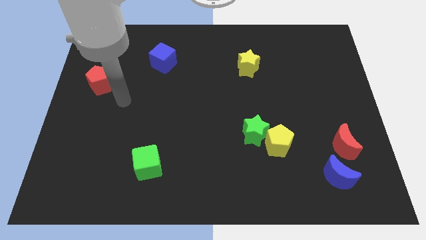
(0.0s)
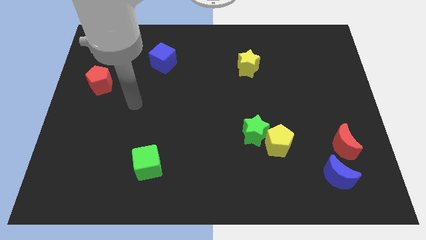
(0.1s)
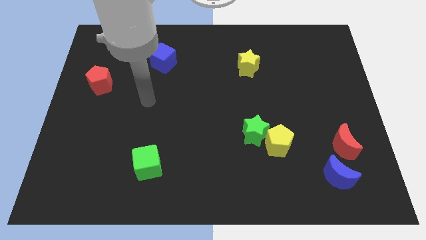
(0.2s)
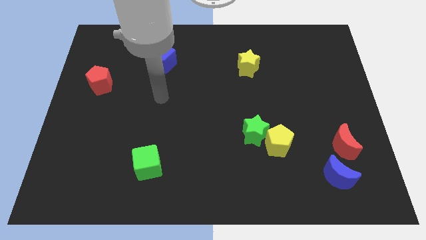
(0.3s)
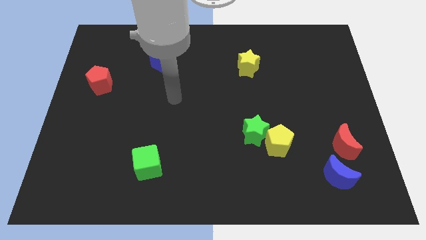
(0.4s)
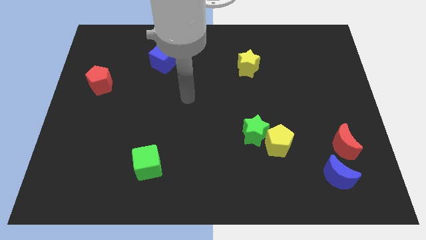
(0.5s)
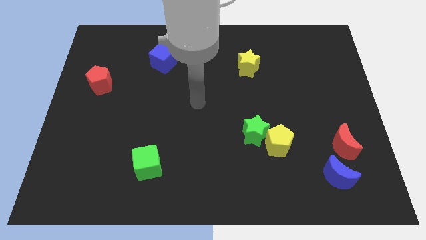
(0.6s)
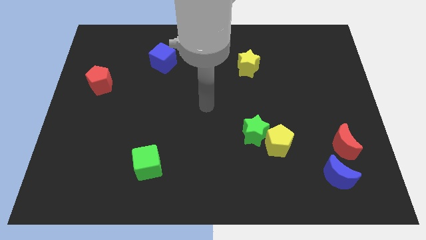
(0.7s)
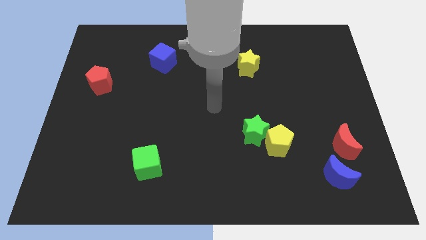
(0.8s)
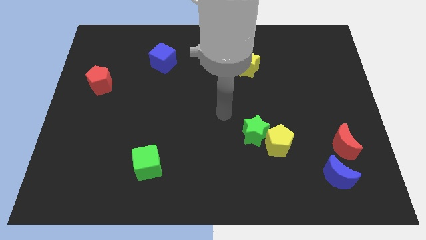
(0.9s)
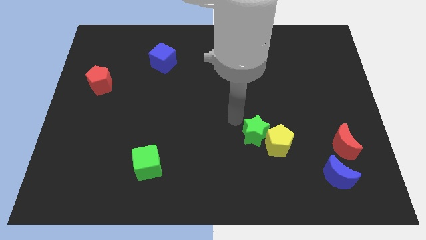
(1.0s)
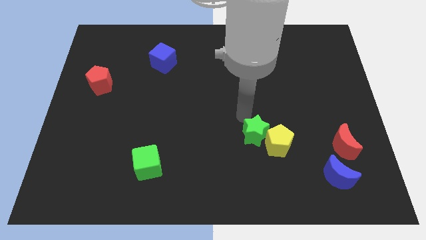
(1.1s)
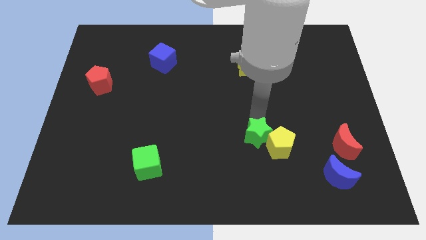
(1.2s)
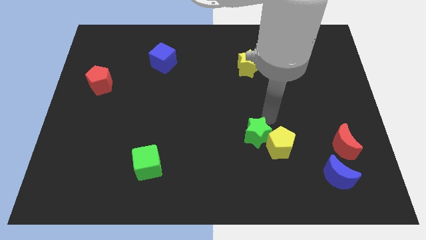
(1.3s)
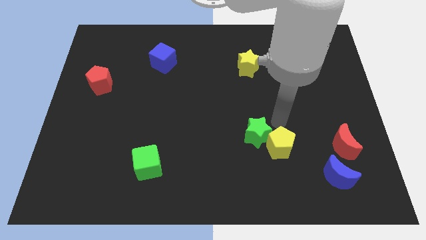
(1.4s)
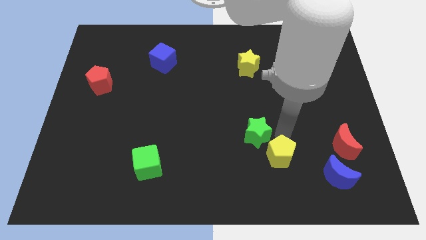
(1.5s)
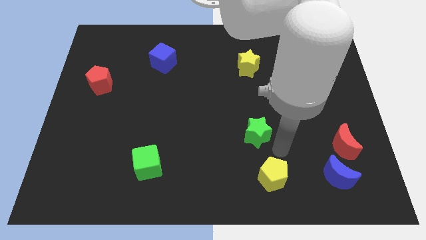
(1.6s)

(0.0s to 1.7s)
separate the green star from the yellow pentagon

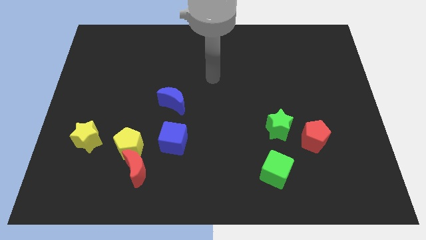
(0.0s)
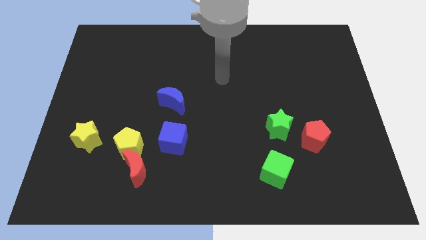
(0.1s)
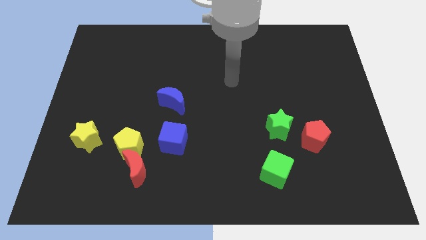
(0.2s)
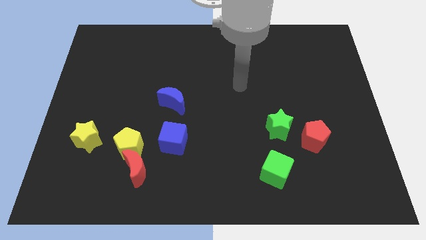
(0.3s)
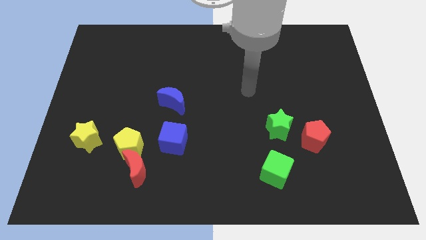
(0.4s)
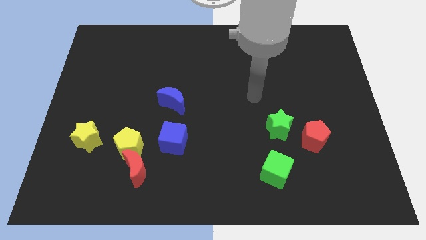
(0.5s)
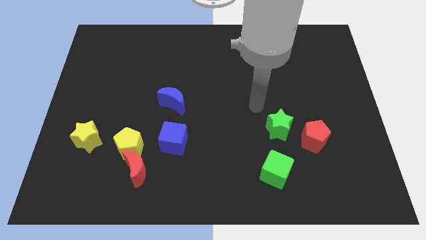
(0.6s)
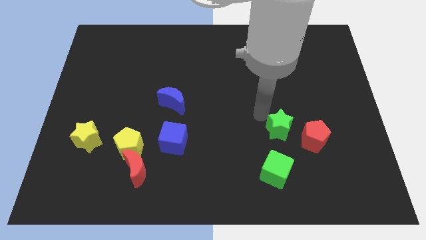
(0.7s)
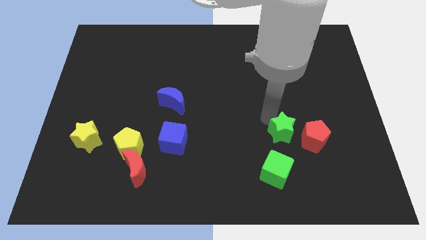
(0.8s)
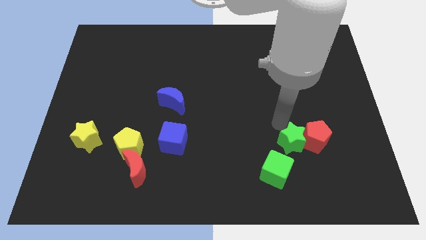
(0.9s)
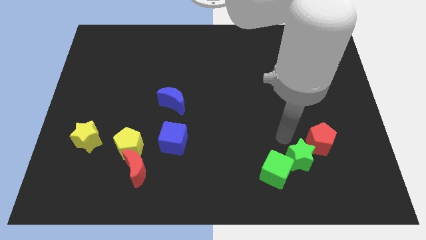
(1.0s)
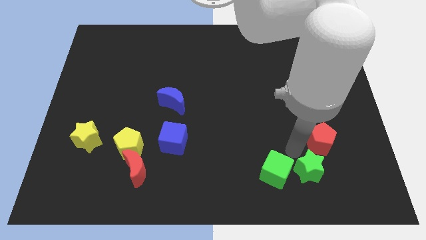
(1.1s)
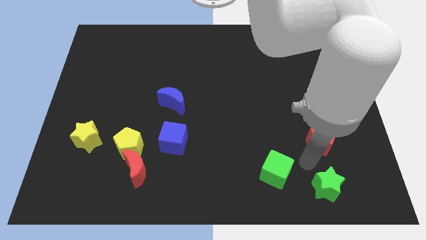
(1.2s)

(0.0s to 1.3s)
move the red pentagon away from the green star

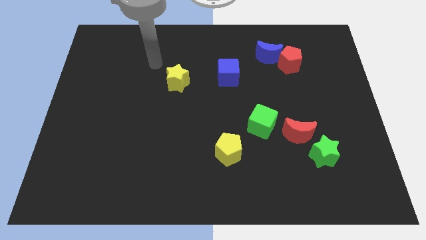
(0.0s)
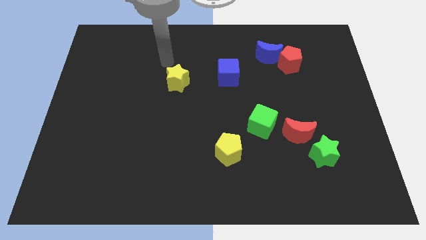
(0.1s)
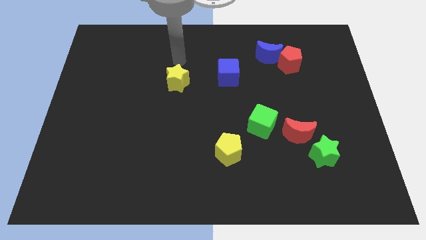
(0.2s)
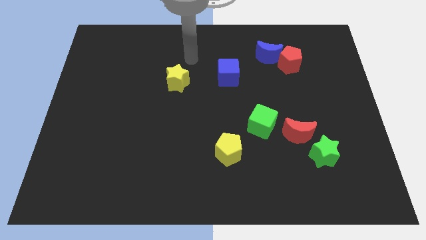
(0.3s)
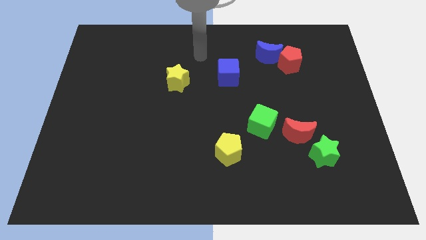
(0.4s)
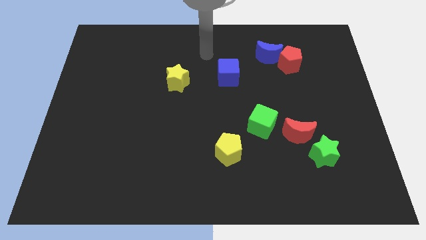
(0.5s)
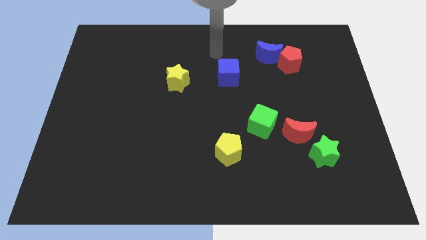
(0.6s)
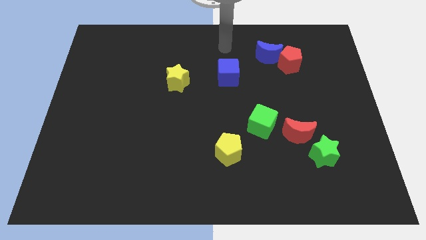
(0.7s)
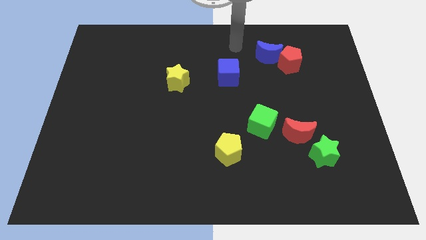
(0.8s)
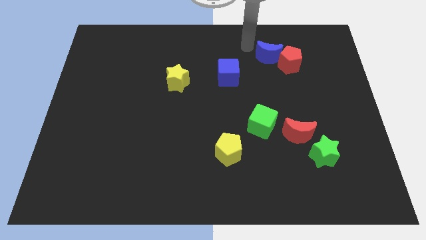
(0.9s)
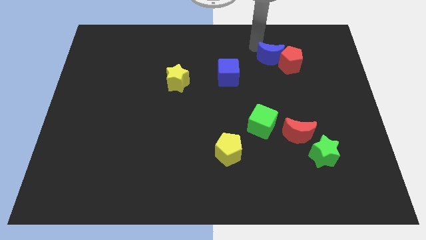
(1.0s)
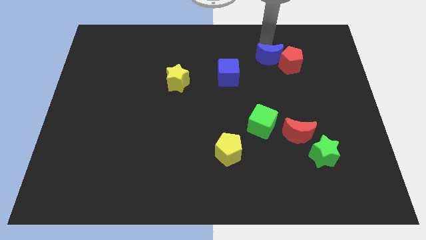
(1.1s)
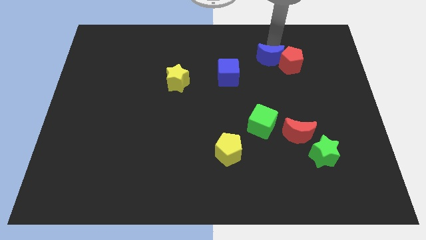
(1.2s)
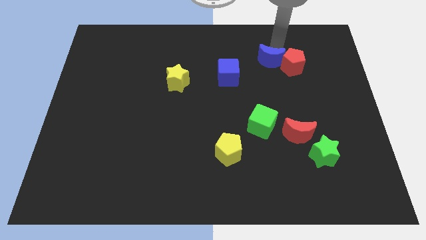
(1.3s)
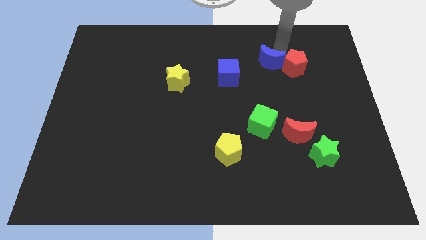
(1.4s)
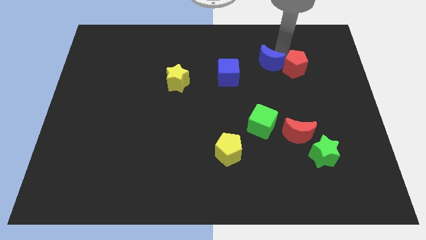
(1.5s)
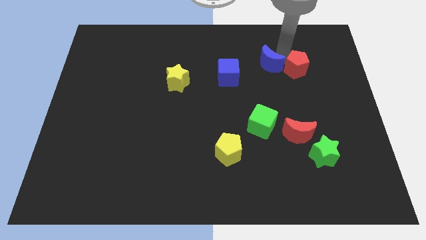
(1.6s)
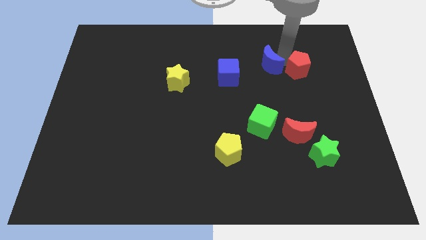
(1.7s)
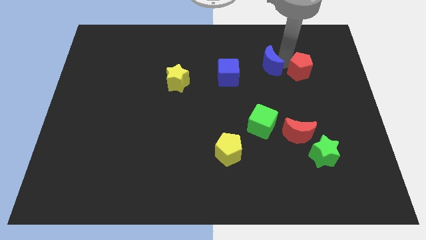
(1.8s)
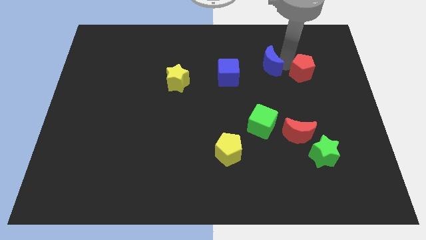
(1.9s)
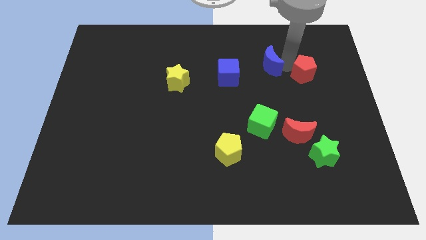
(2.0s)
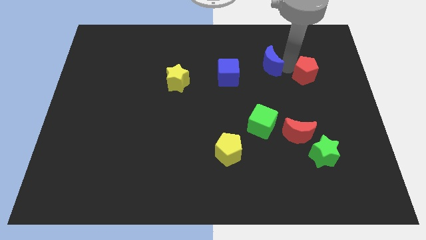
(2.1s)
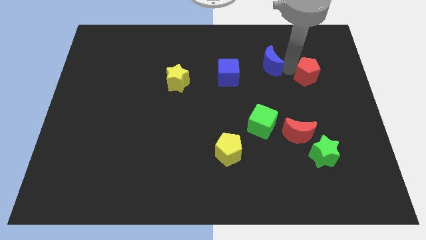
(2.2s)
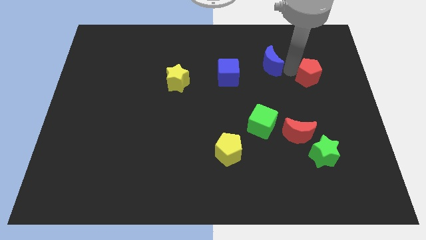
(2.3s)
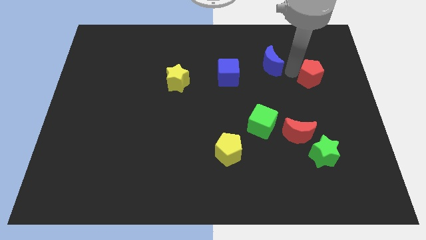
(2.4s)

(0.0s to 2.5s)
separate the red pentagon from the blue moon

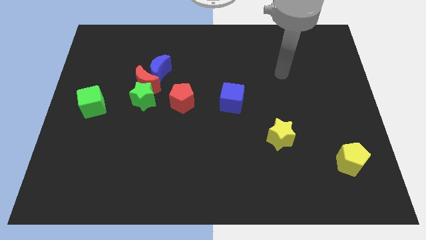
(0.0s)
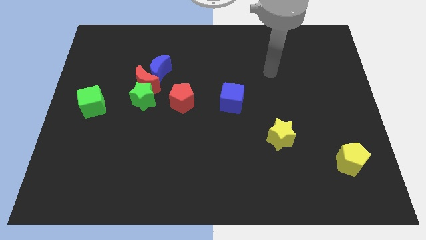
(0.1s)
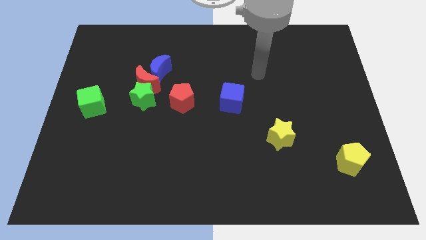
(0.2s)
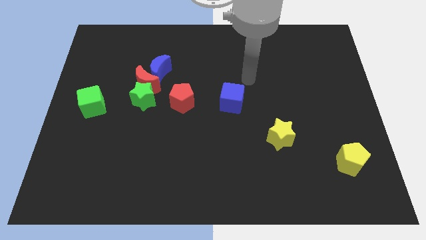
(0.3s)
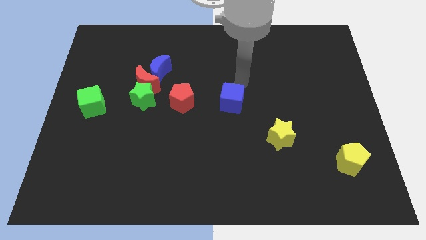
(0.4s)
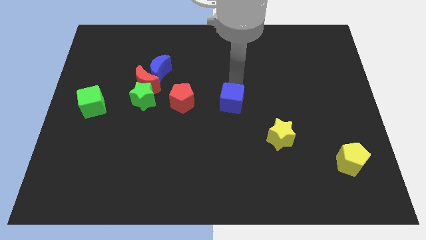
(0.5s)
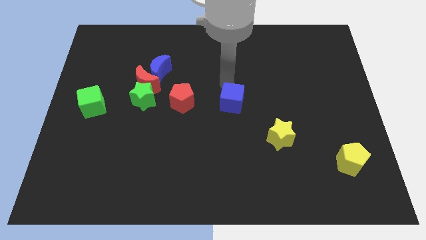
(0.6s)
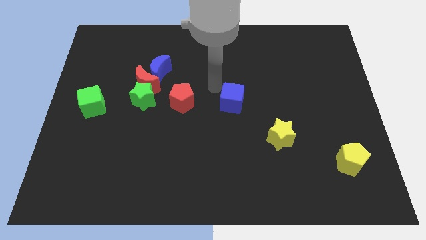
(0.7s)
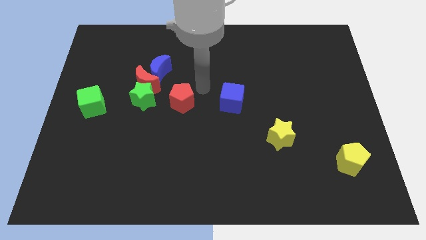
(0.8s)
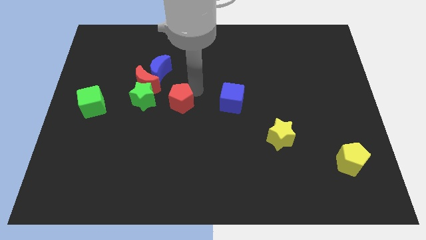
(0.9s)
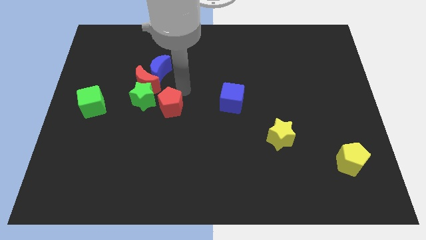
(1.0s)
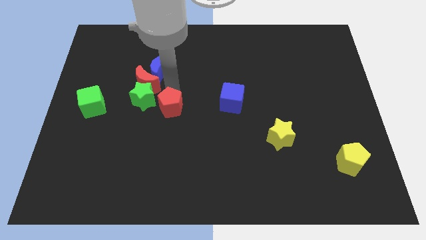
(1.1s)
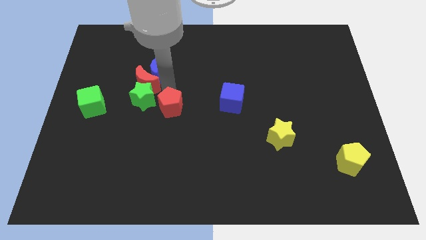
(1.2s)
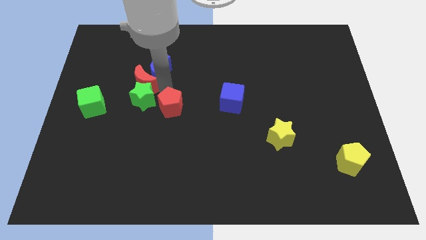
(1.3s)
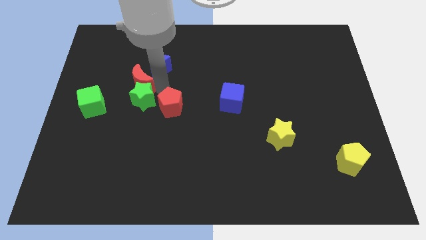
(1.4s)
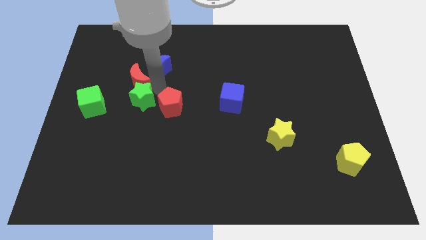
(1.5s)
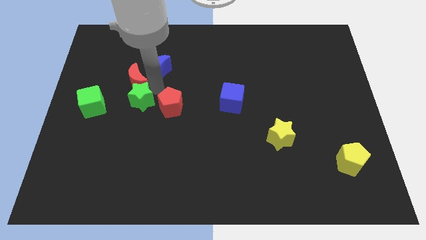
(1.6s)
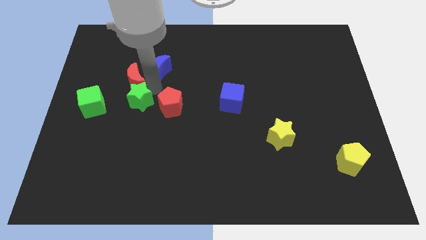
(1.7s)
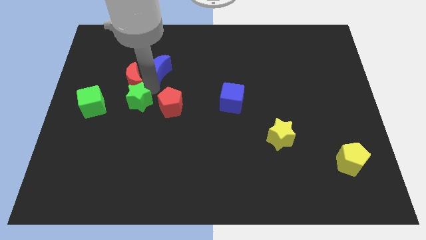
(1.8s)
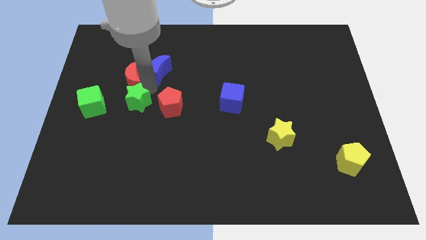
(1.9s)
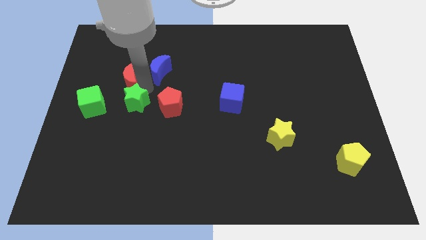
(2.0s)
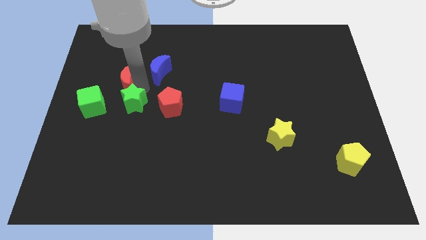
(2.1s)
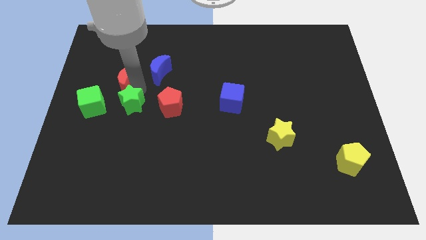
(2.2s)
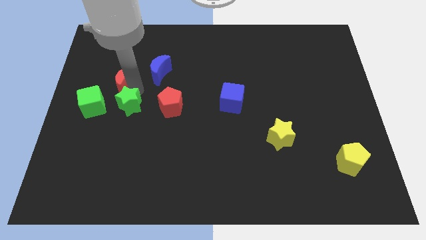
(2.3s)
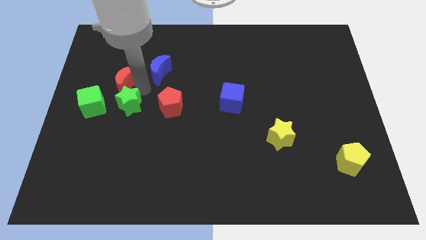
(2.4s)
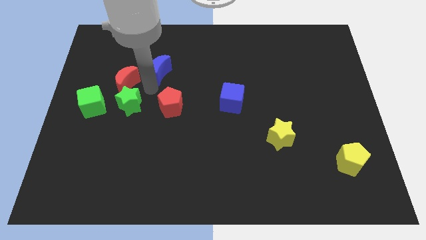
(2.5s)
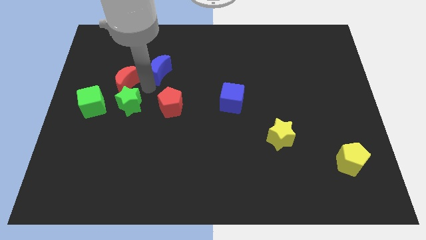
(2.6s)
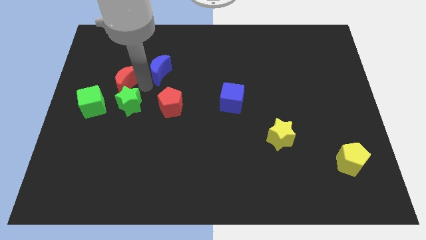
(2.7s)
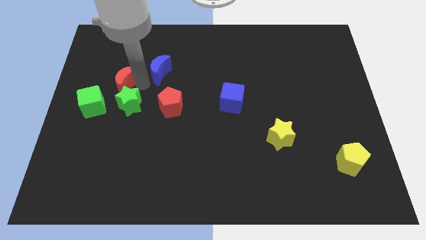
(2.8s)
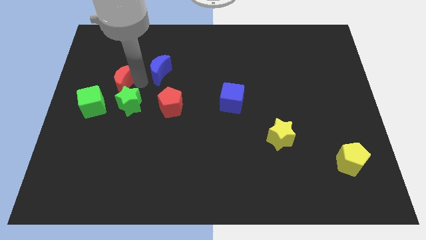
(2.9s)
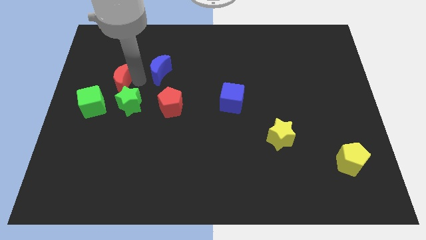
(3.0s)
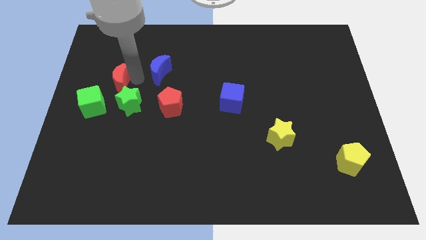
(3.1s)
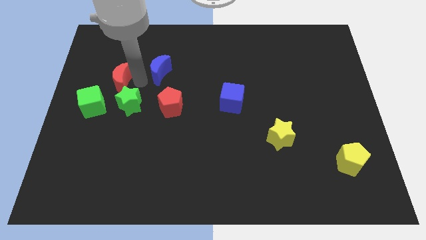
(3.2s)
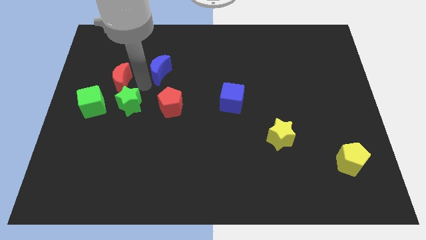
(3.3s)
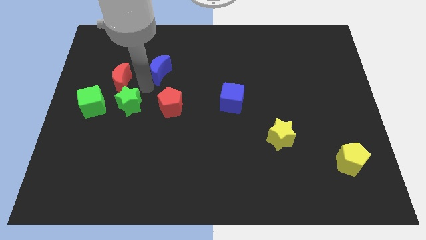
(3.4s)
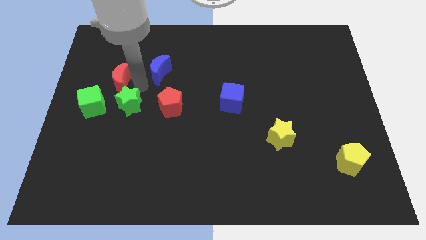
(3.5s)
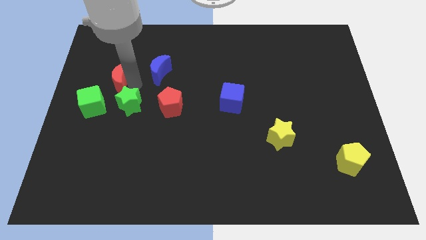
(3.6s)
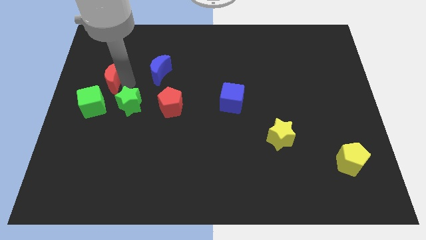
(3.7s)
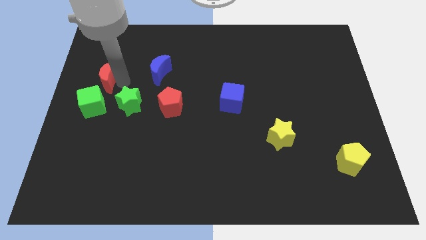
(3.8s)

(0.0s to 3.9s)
separate the red moon from the green star and blue moon
